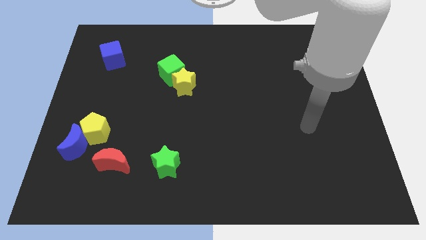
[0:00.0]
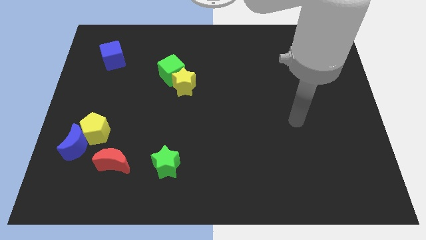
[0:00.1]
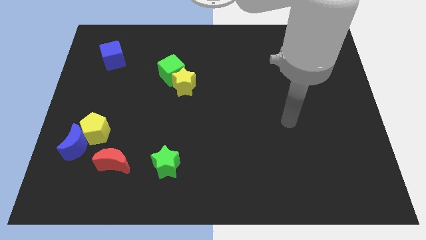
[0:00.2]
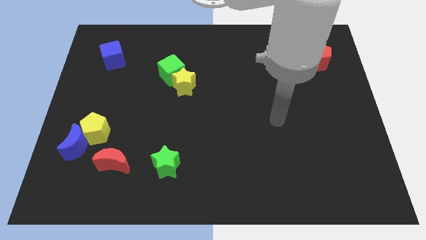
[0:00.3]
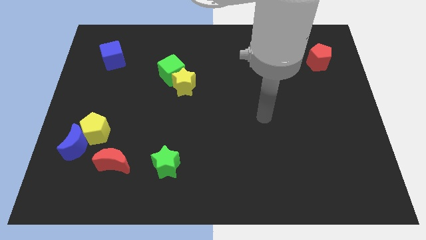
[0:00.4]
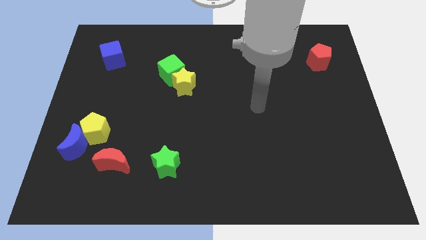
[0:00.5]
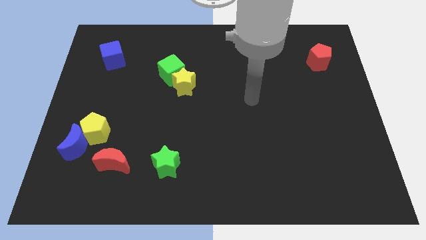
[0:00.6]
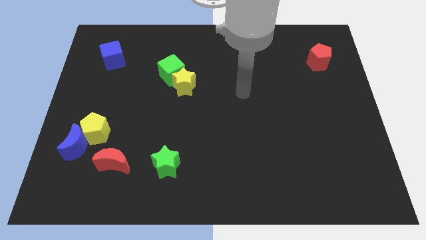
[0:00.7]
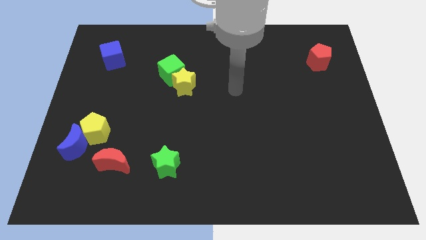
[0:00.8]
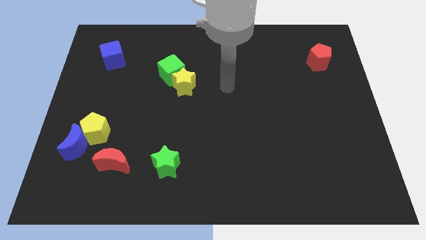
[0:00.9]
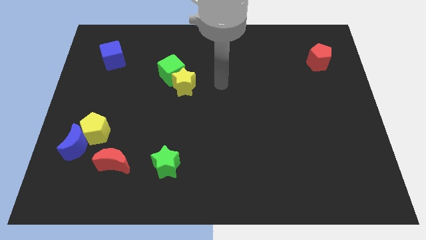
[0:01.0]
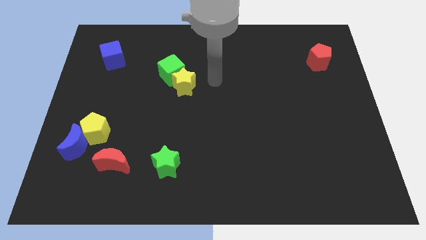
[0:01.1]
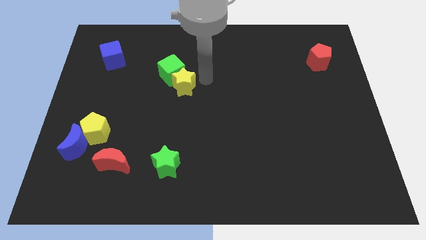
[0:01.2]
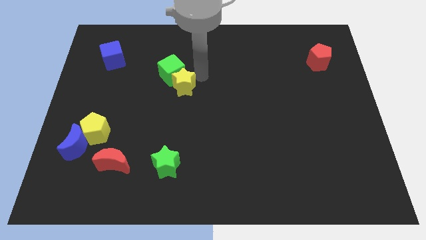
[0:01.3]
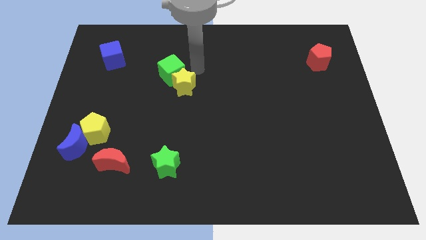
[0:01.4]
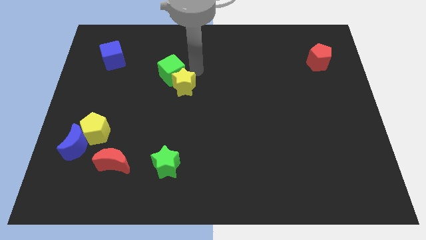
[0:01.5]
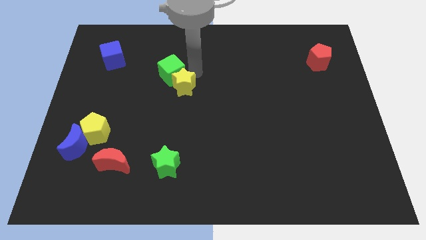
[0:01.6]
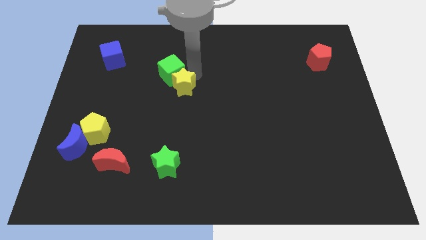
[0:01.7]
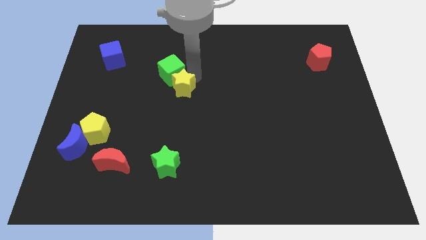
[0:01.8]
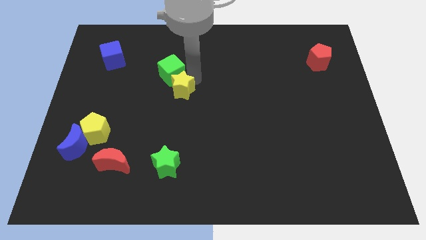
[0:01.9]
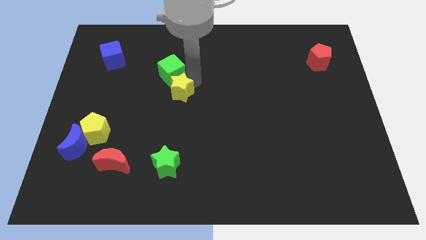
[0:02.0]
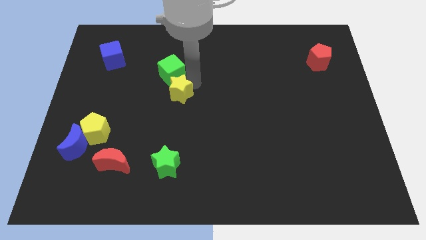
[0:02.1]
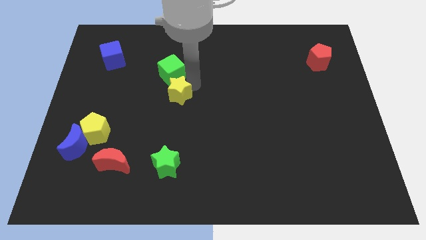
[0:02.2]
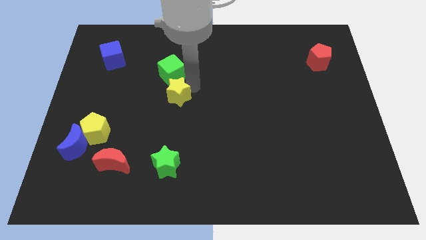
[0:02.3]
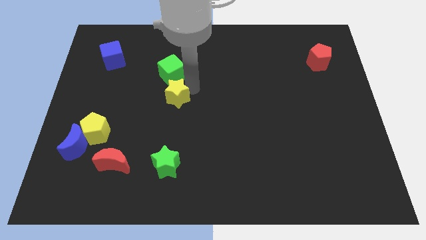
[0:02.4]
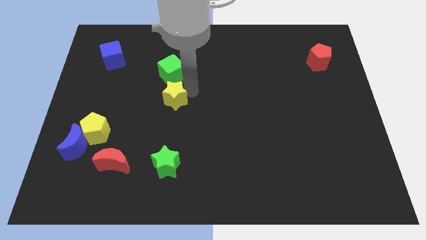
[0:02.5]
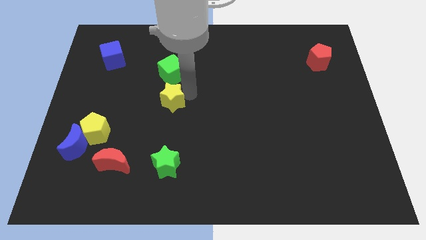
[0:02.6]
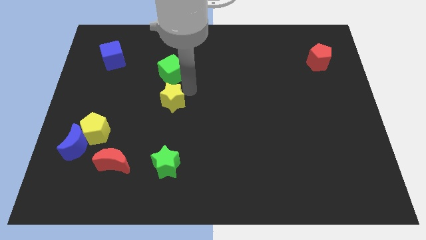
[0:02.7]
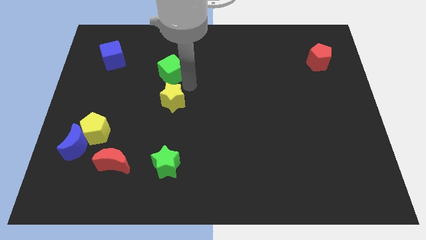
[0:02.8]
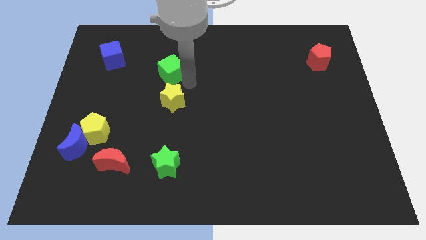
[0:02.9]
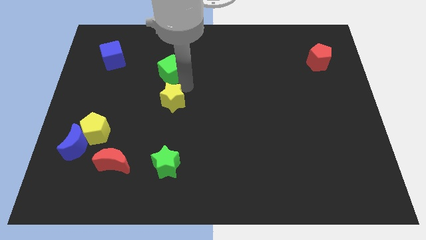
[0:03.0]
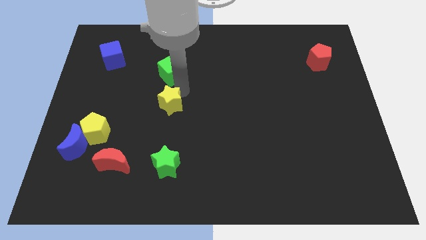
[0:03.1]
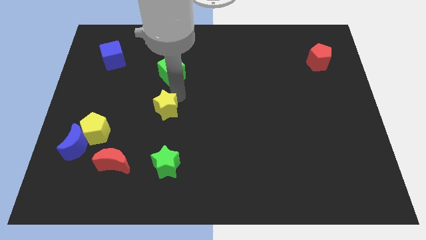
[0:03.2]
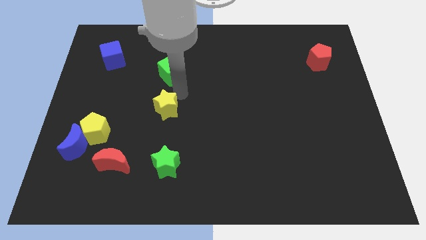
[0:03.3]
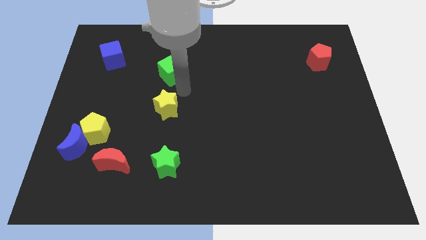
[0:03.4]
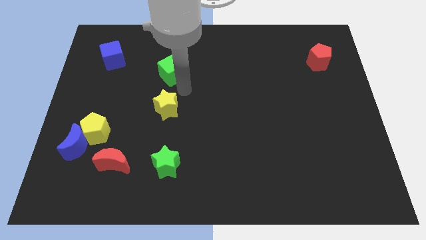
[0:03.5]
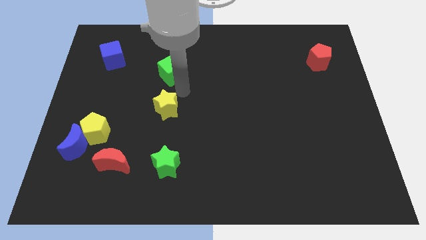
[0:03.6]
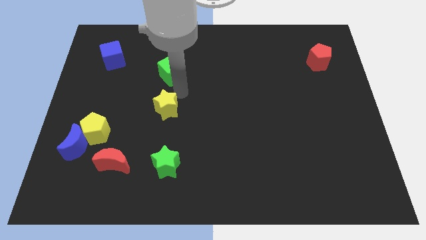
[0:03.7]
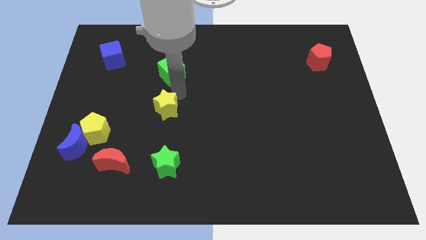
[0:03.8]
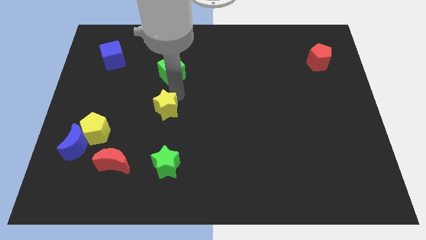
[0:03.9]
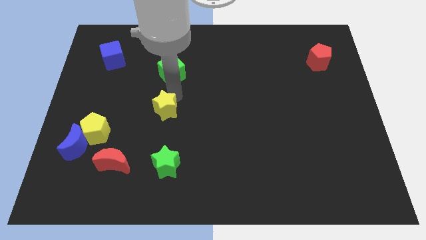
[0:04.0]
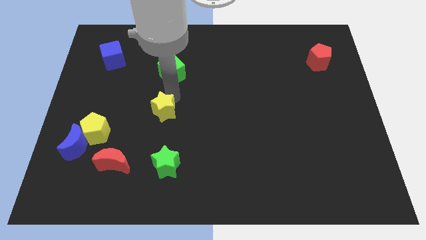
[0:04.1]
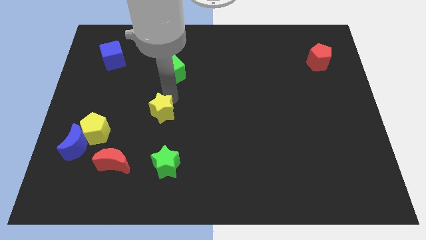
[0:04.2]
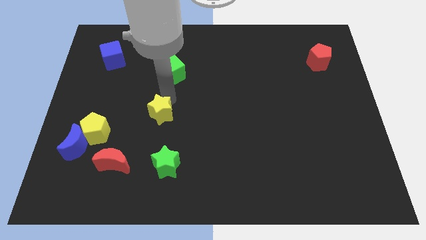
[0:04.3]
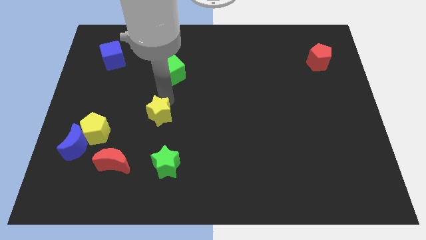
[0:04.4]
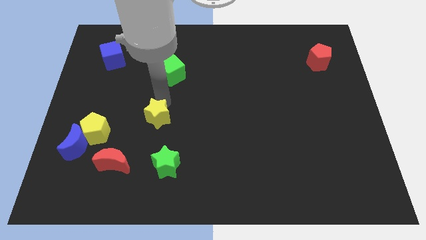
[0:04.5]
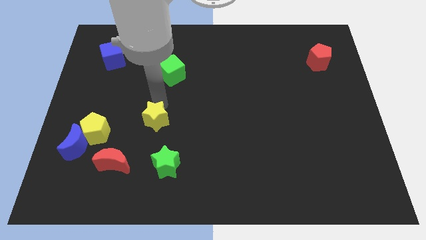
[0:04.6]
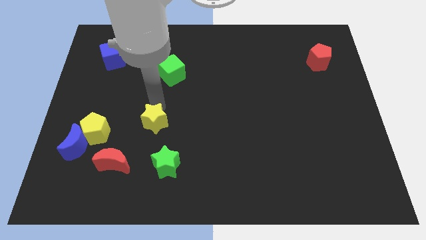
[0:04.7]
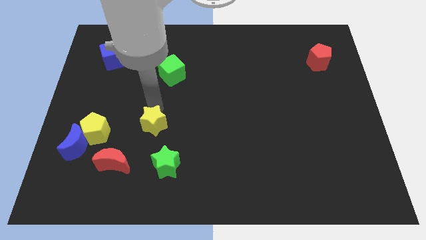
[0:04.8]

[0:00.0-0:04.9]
slide the yellow star diagonally up and to the right of the red moon

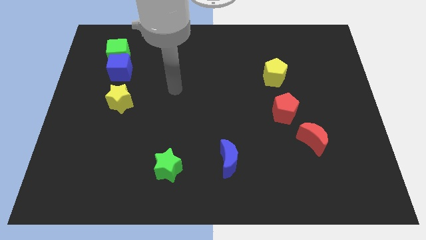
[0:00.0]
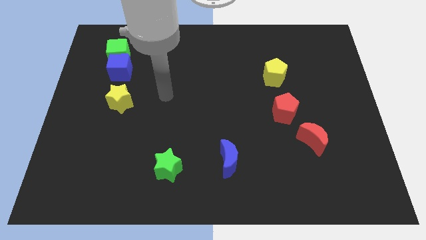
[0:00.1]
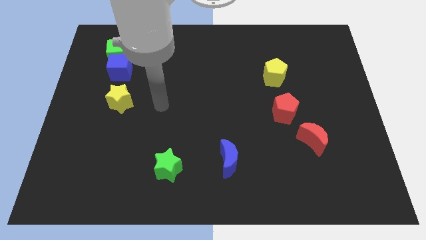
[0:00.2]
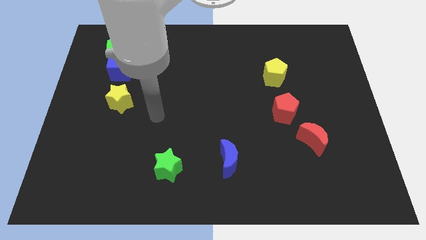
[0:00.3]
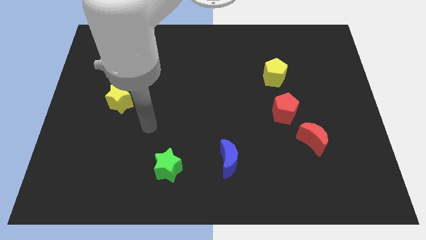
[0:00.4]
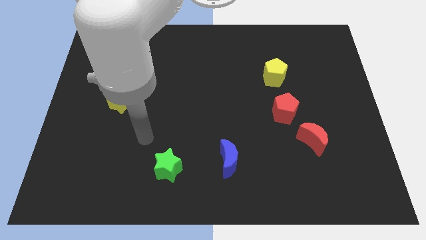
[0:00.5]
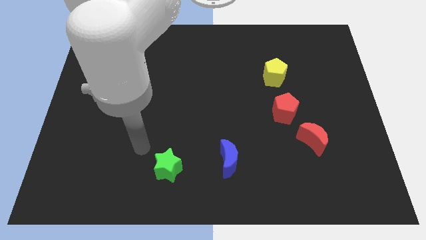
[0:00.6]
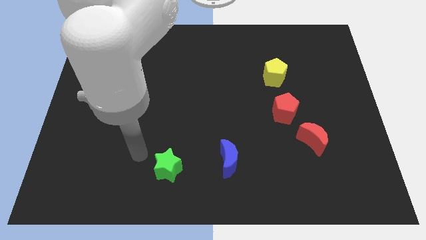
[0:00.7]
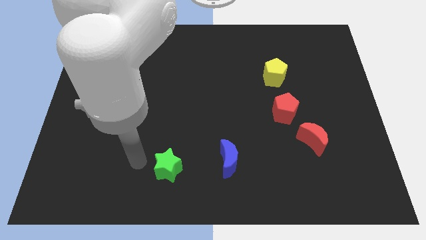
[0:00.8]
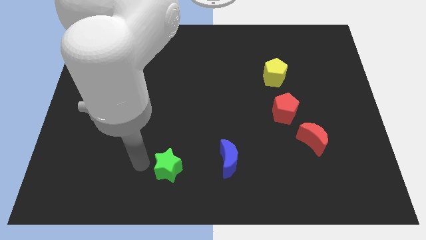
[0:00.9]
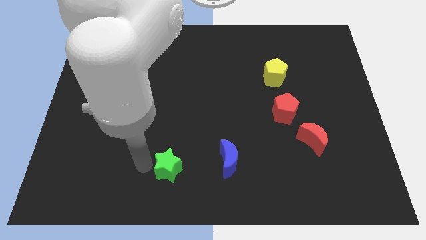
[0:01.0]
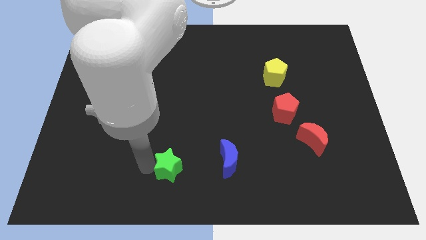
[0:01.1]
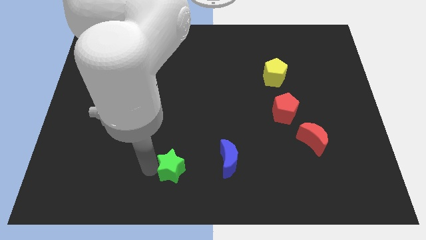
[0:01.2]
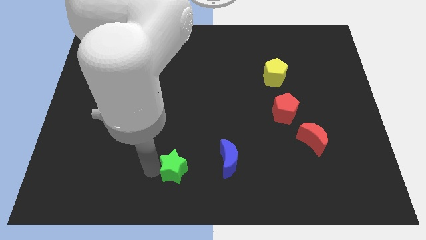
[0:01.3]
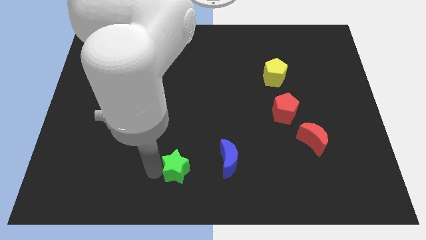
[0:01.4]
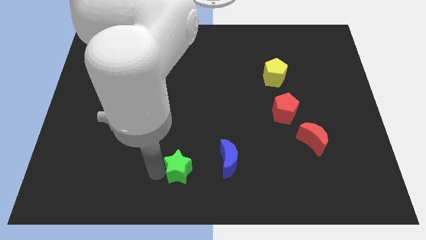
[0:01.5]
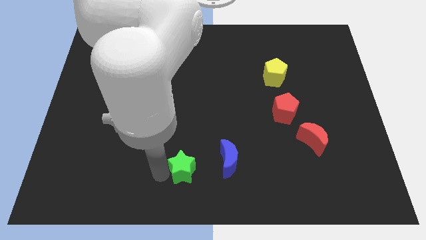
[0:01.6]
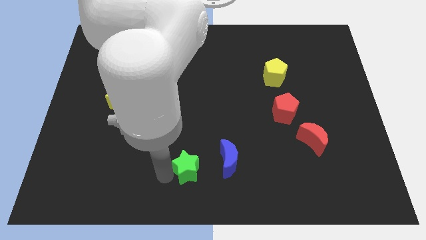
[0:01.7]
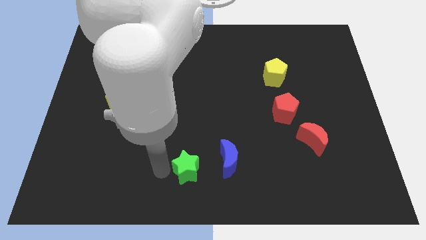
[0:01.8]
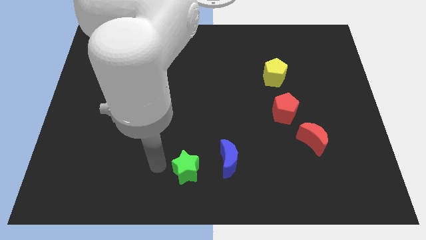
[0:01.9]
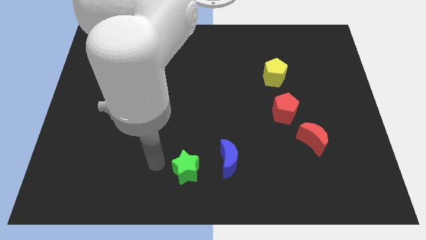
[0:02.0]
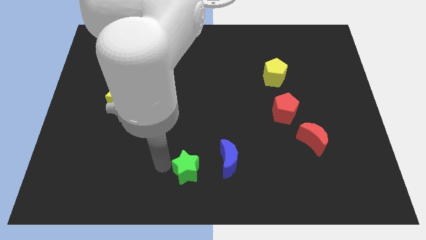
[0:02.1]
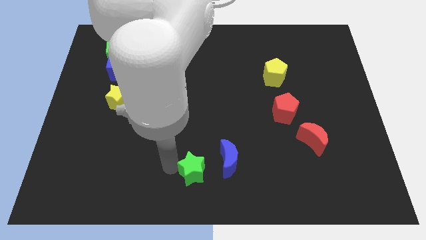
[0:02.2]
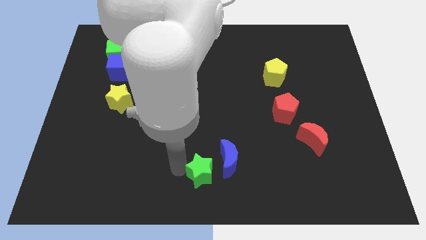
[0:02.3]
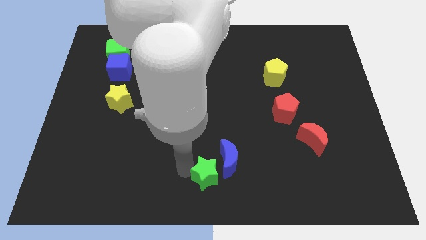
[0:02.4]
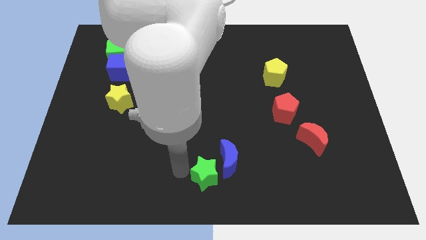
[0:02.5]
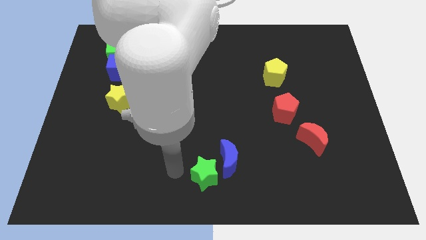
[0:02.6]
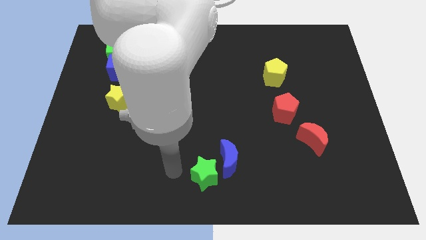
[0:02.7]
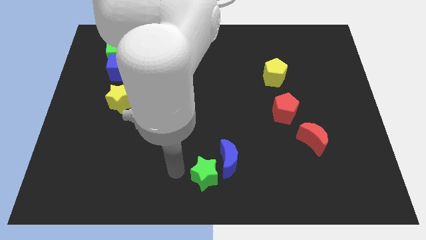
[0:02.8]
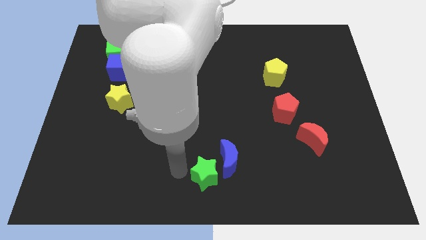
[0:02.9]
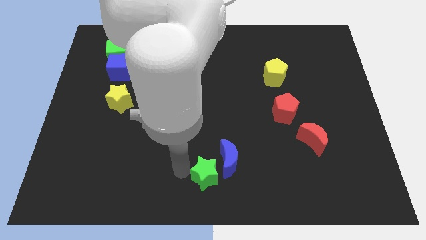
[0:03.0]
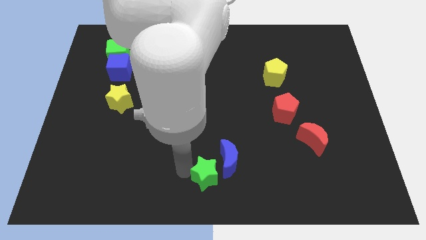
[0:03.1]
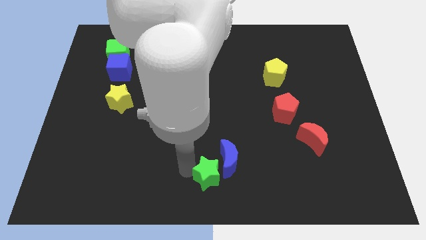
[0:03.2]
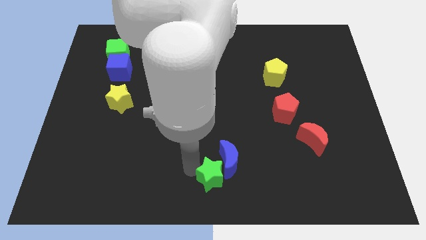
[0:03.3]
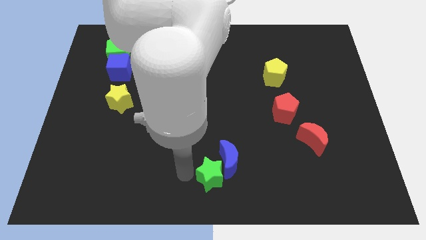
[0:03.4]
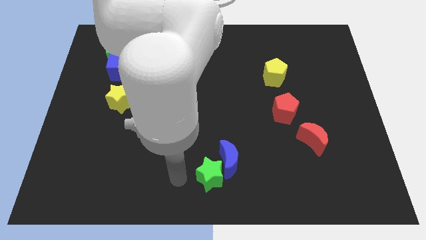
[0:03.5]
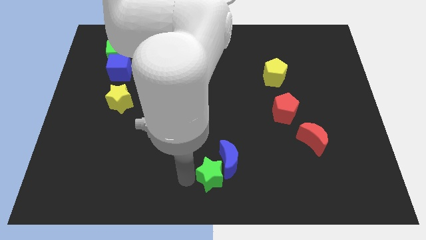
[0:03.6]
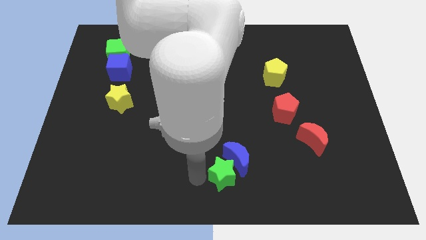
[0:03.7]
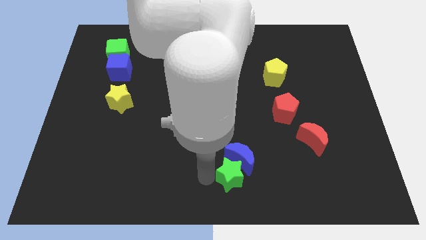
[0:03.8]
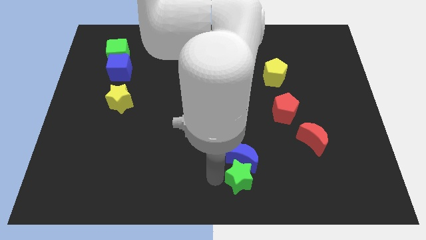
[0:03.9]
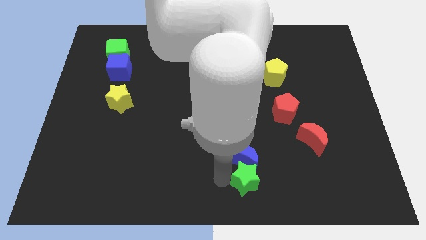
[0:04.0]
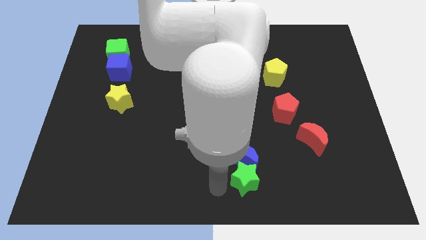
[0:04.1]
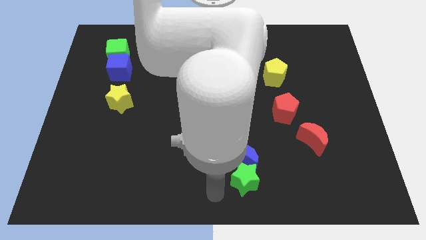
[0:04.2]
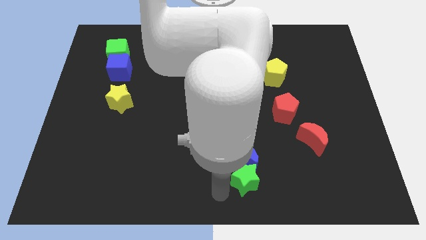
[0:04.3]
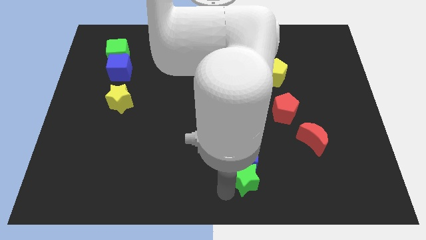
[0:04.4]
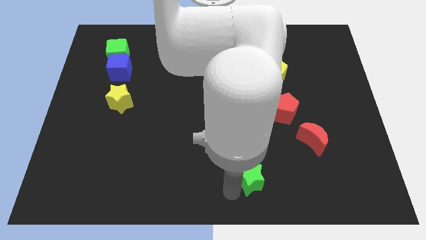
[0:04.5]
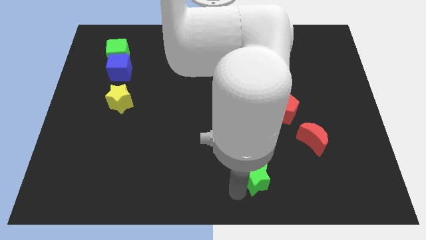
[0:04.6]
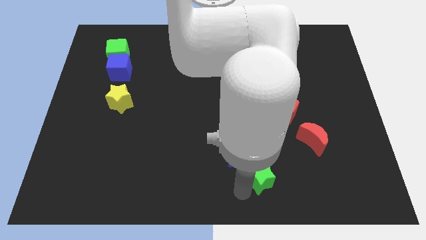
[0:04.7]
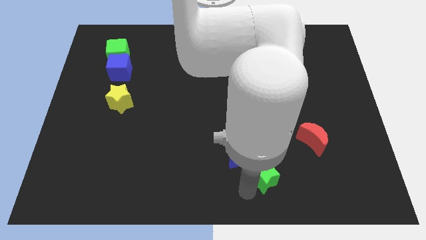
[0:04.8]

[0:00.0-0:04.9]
push the green star right of the blue moon
